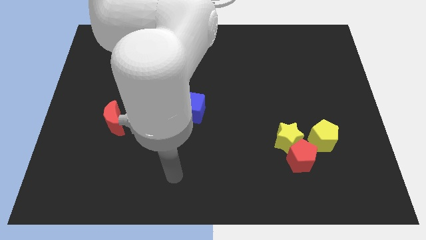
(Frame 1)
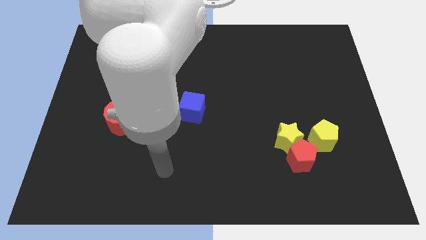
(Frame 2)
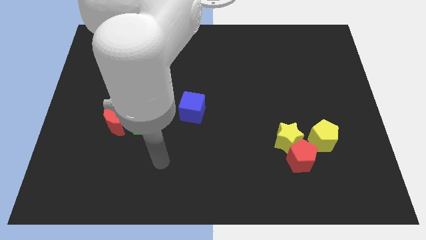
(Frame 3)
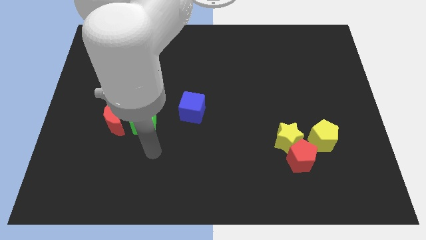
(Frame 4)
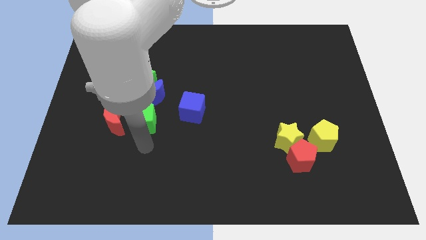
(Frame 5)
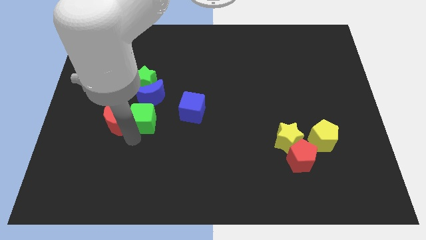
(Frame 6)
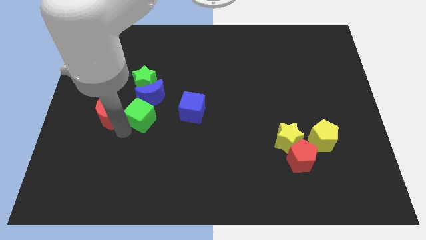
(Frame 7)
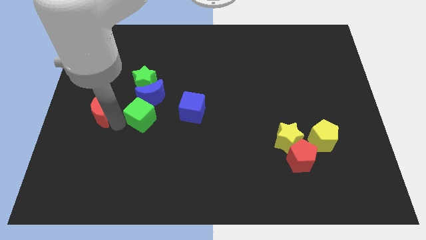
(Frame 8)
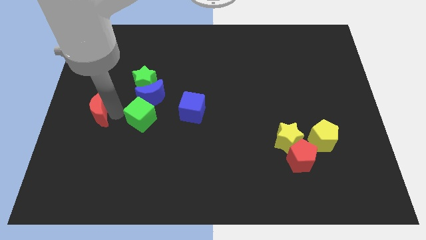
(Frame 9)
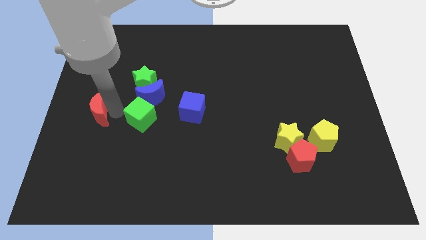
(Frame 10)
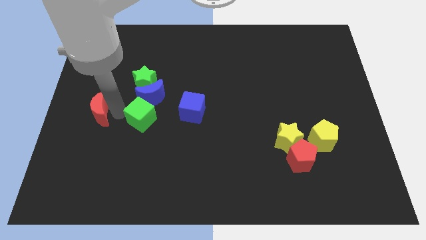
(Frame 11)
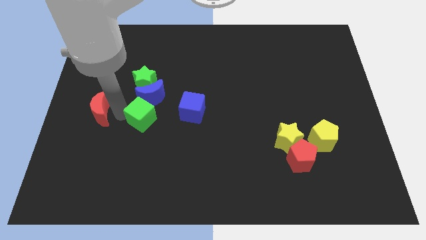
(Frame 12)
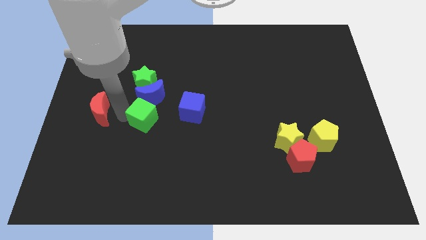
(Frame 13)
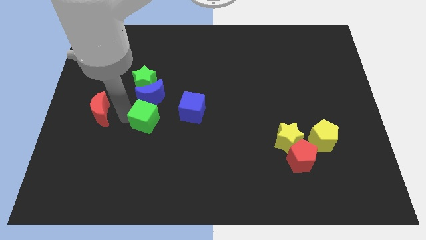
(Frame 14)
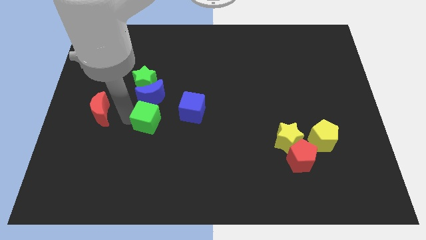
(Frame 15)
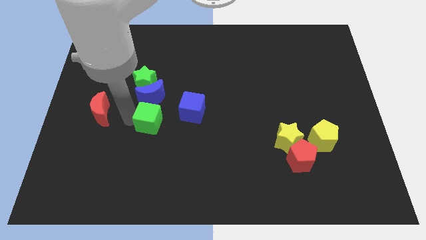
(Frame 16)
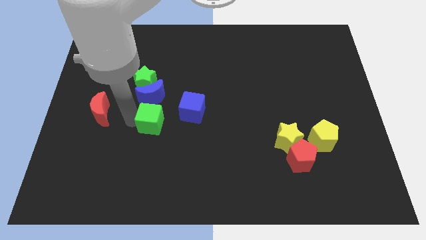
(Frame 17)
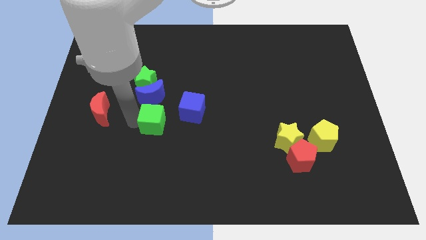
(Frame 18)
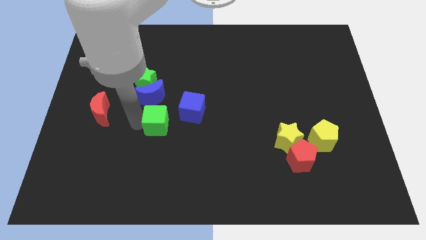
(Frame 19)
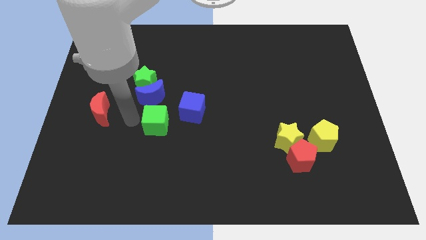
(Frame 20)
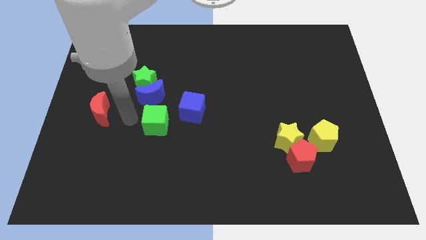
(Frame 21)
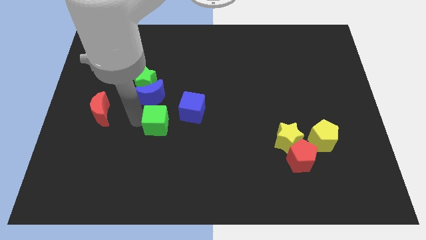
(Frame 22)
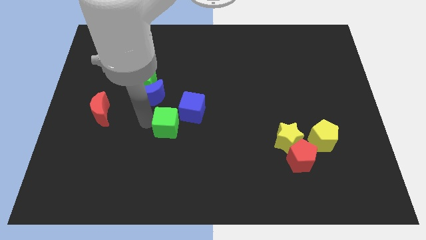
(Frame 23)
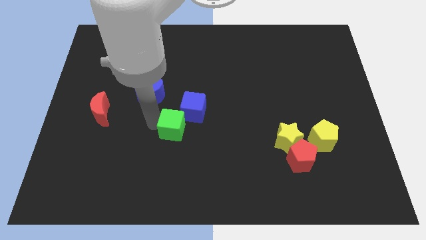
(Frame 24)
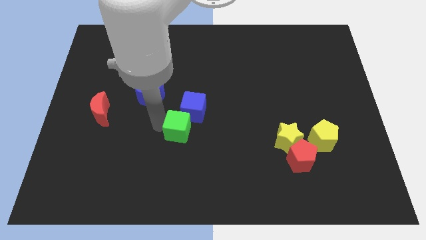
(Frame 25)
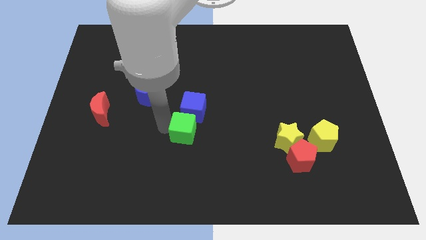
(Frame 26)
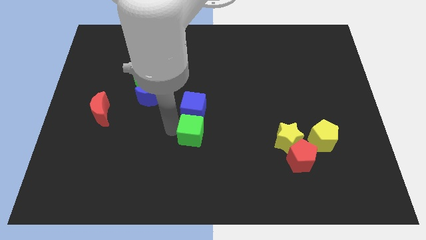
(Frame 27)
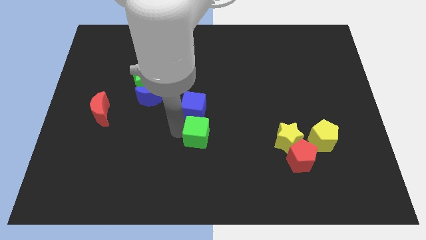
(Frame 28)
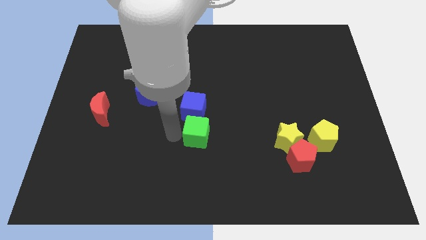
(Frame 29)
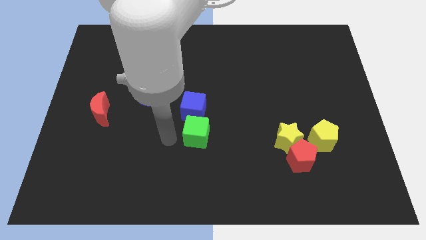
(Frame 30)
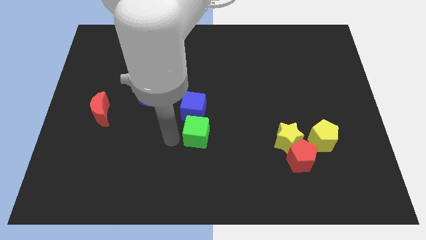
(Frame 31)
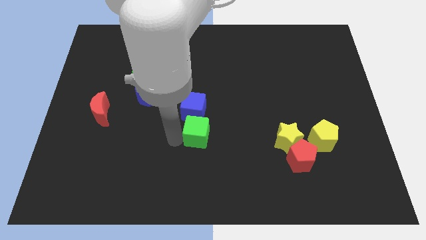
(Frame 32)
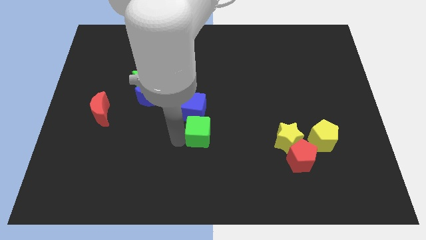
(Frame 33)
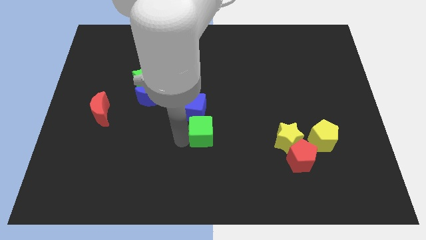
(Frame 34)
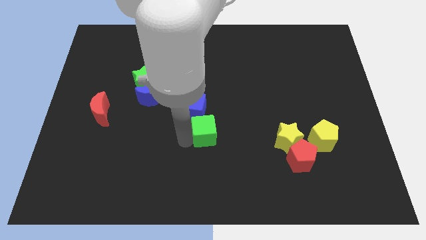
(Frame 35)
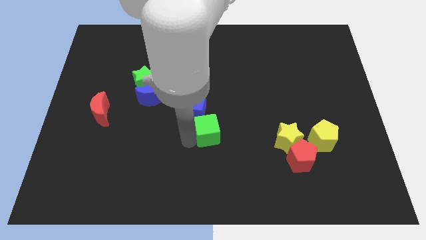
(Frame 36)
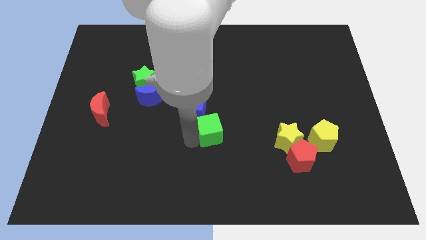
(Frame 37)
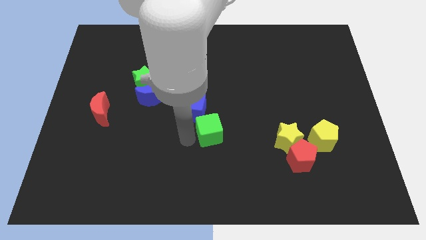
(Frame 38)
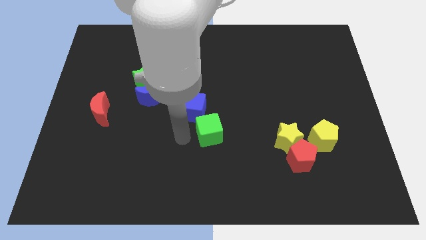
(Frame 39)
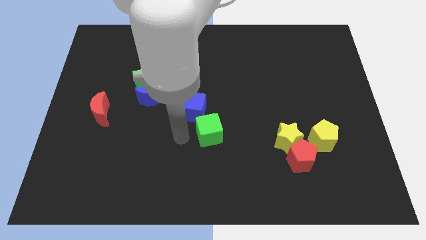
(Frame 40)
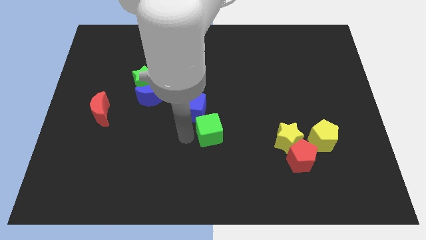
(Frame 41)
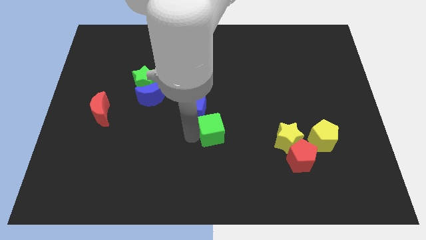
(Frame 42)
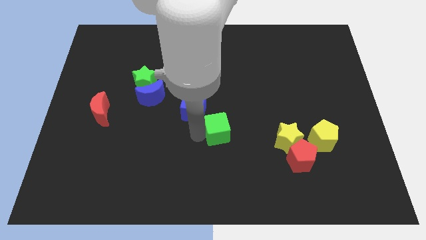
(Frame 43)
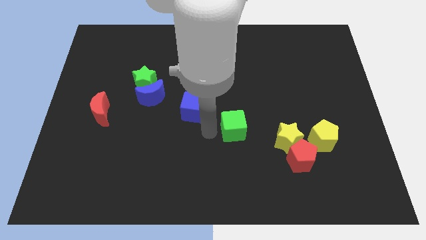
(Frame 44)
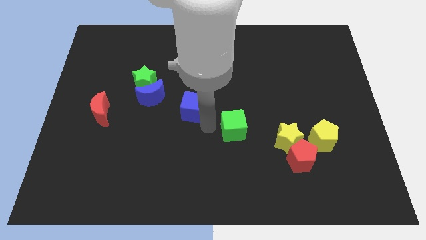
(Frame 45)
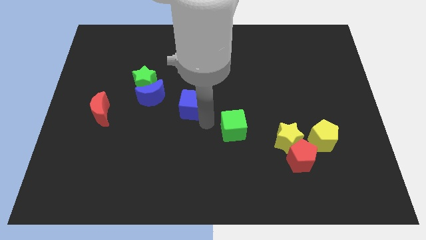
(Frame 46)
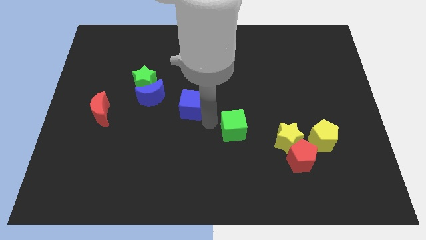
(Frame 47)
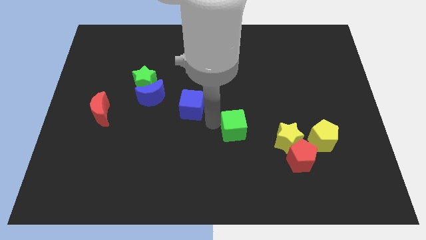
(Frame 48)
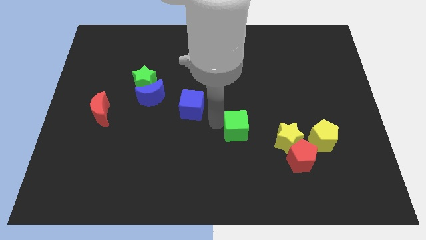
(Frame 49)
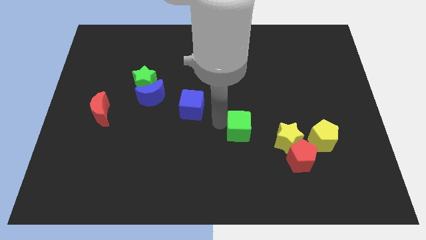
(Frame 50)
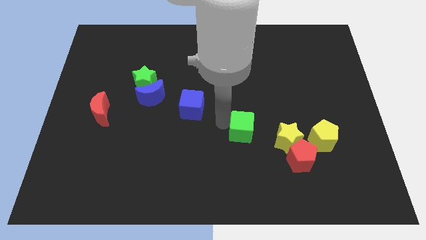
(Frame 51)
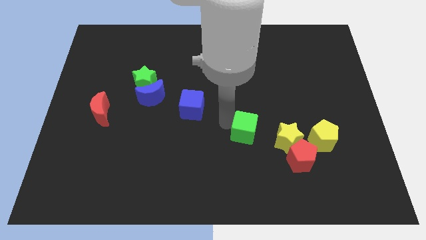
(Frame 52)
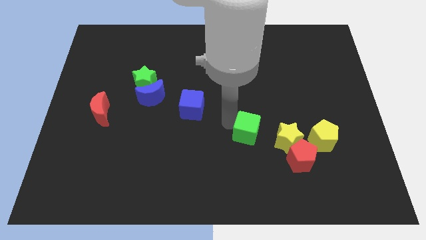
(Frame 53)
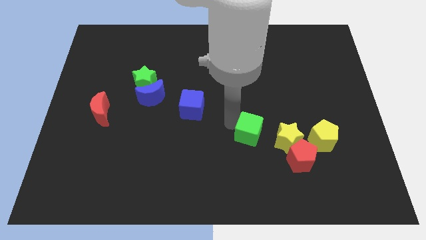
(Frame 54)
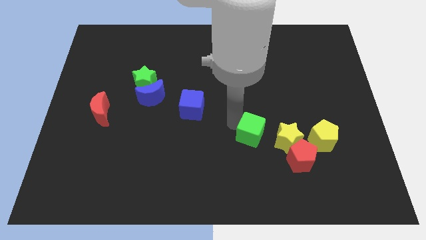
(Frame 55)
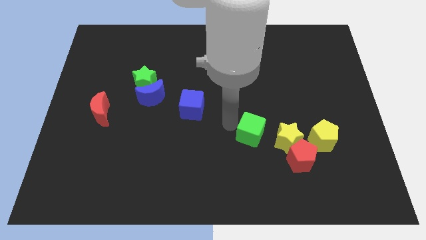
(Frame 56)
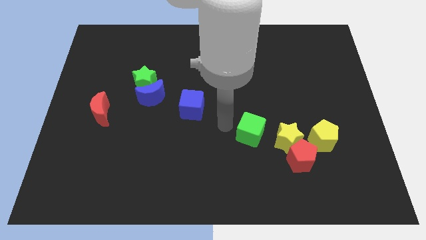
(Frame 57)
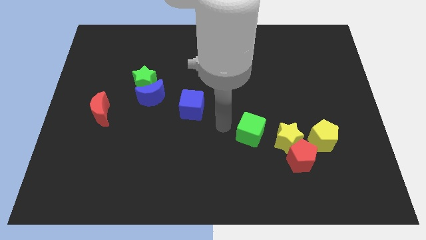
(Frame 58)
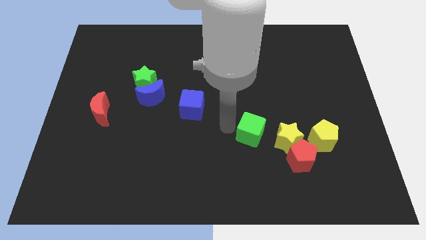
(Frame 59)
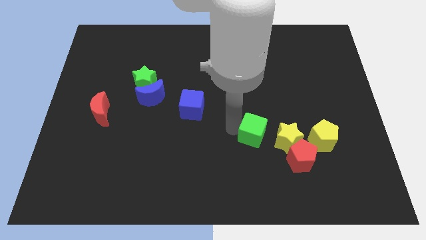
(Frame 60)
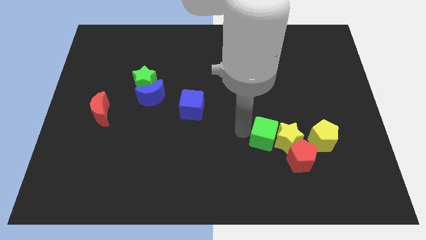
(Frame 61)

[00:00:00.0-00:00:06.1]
put the green cube close to the yellow star

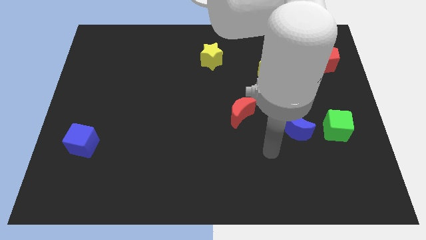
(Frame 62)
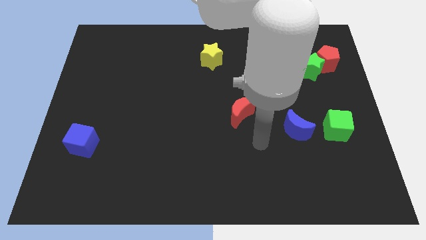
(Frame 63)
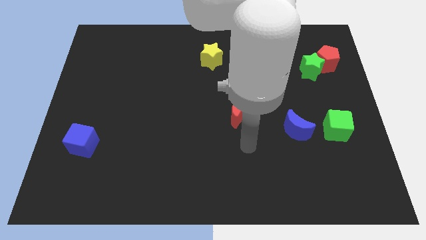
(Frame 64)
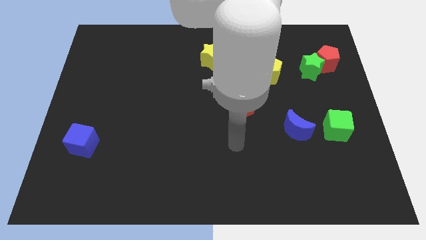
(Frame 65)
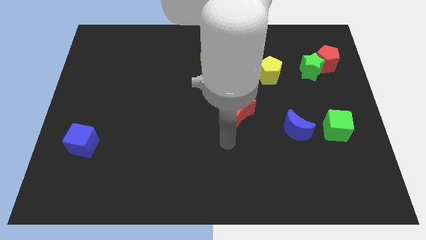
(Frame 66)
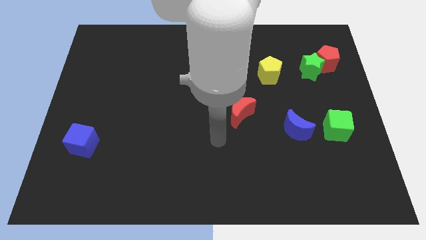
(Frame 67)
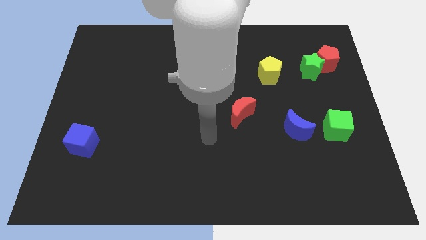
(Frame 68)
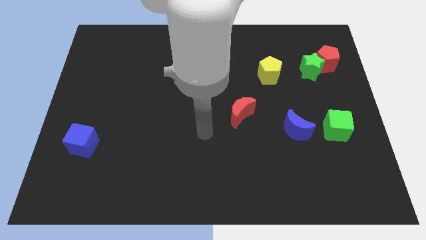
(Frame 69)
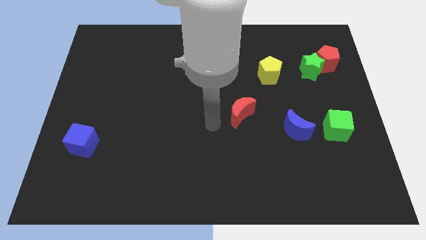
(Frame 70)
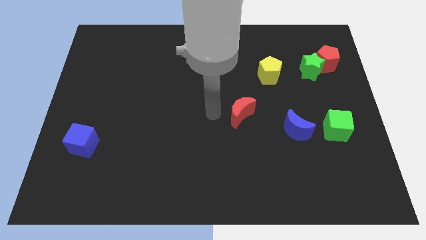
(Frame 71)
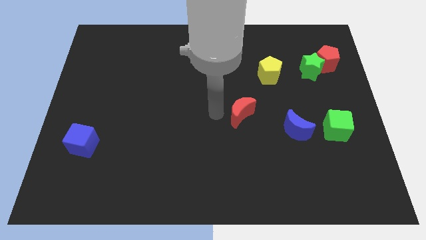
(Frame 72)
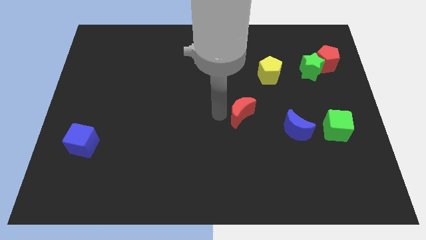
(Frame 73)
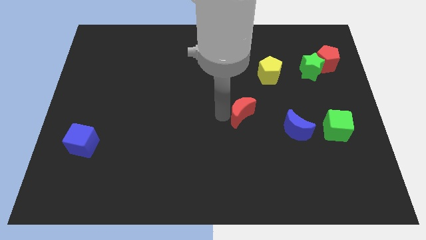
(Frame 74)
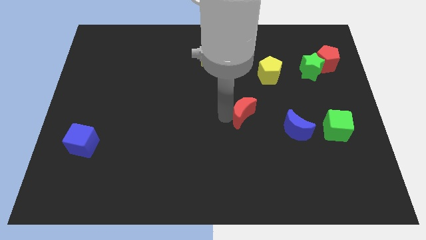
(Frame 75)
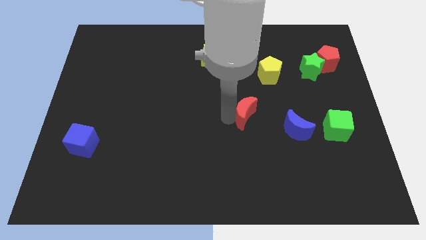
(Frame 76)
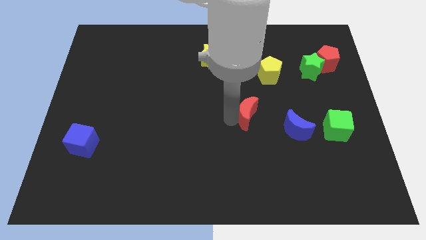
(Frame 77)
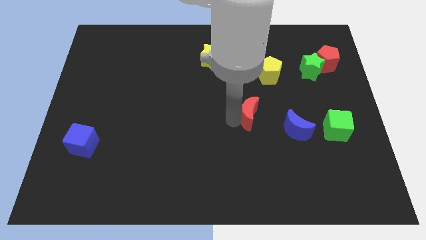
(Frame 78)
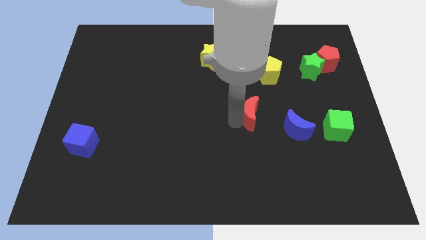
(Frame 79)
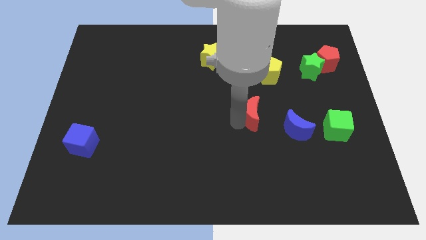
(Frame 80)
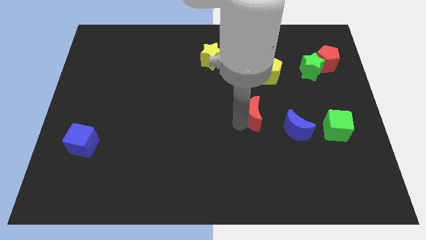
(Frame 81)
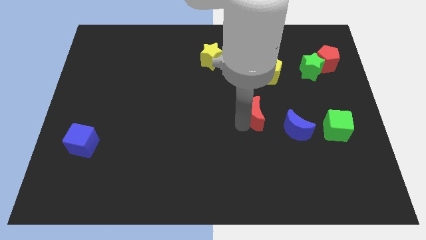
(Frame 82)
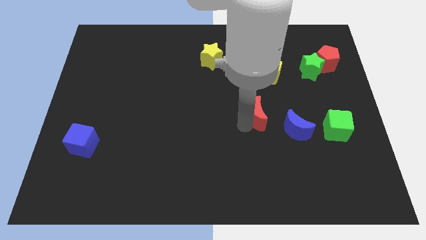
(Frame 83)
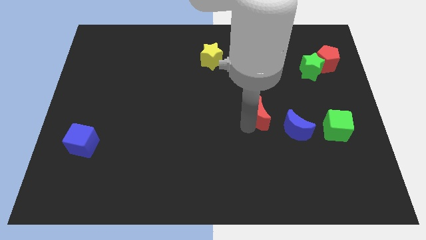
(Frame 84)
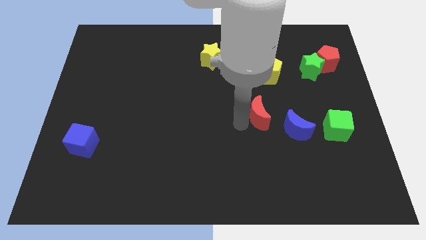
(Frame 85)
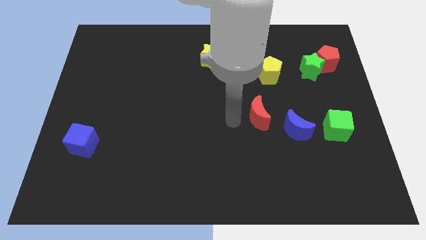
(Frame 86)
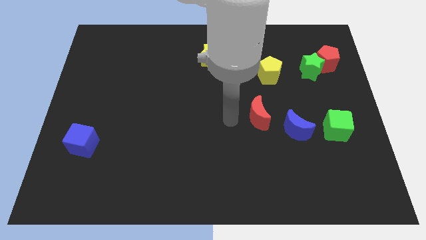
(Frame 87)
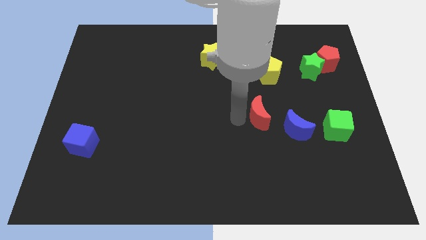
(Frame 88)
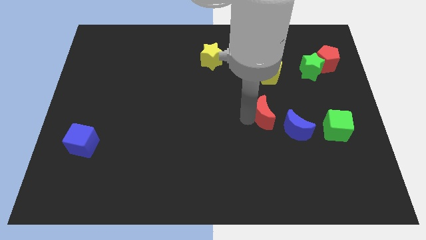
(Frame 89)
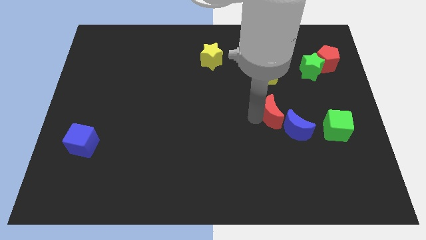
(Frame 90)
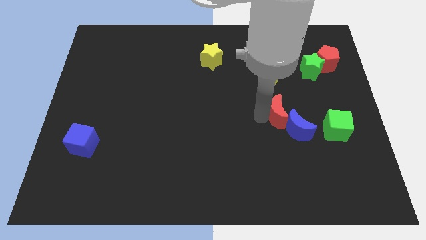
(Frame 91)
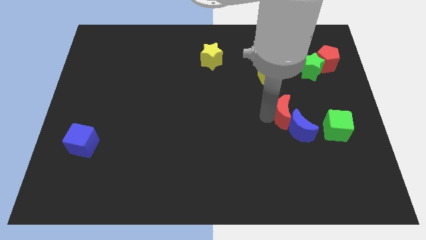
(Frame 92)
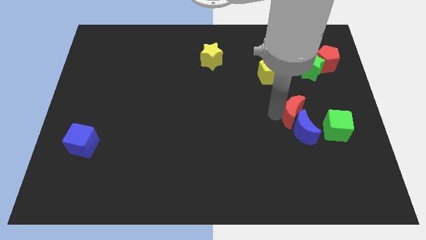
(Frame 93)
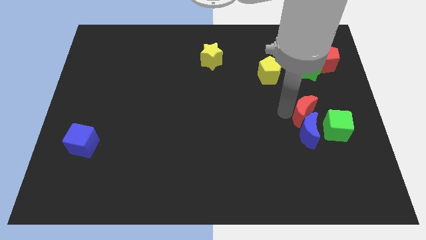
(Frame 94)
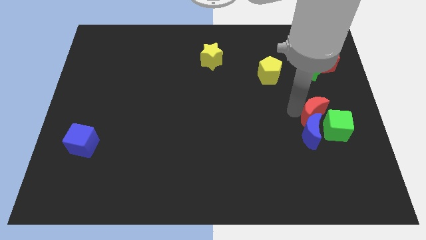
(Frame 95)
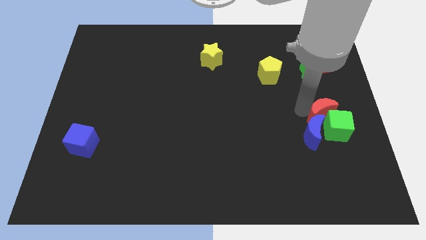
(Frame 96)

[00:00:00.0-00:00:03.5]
put the red moon close to the green cube
